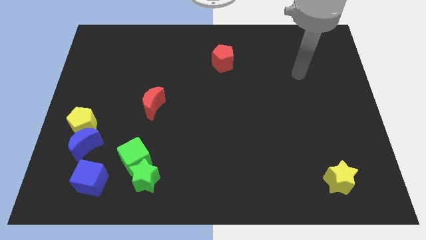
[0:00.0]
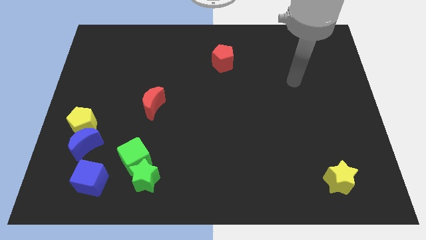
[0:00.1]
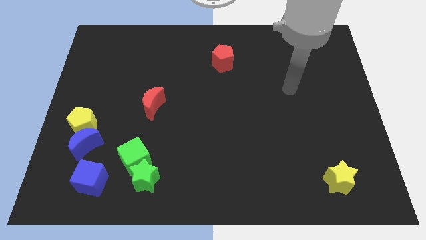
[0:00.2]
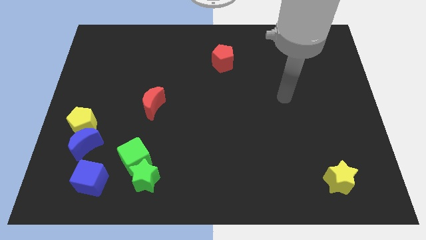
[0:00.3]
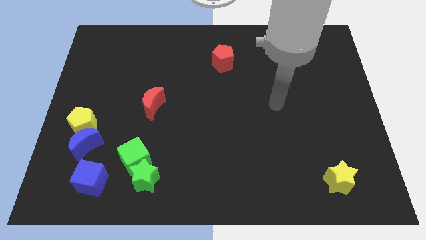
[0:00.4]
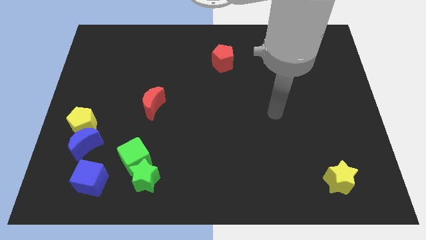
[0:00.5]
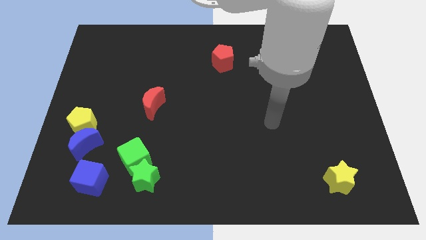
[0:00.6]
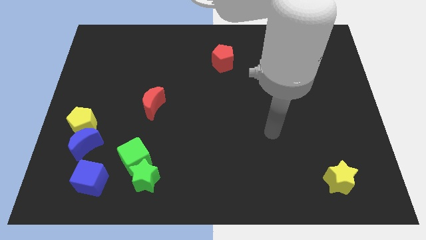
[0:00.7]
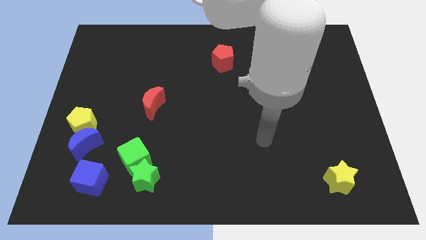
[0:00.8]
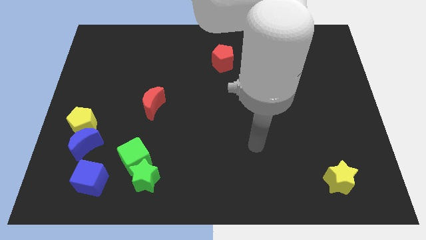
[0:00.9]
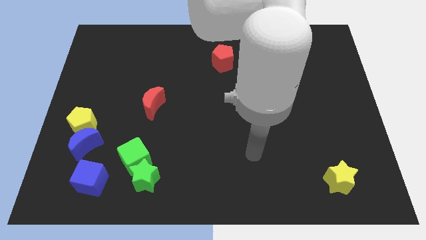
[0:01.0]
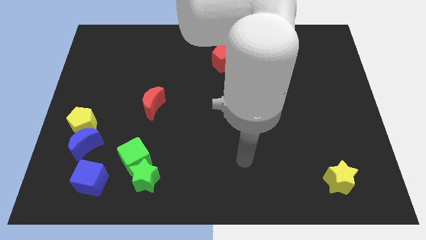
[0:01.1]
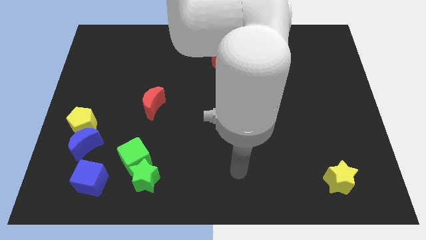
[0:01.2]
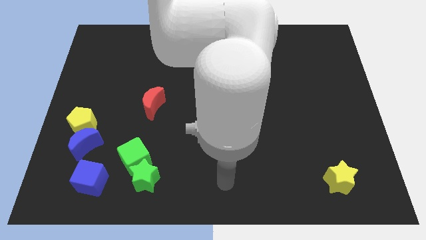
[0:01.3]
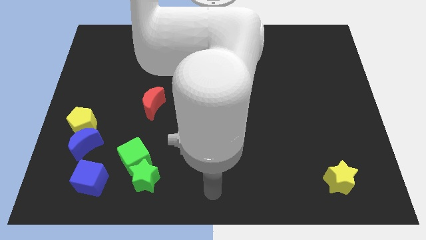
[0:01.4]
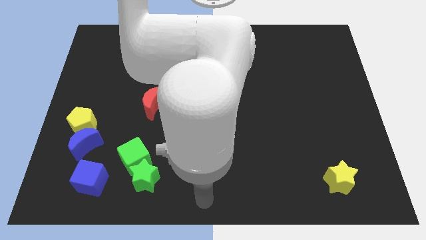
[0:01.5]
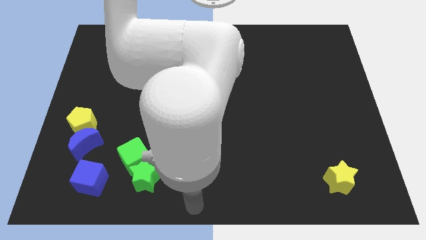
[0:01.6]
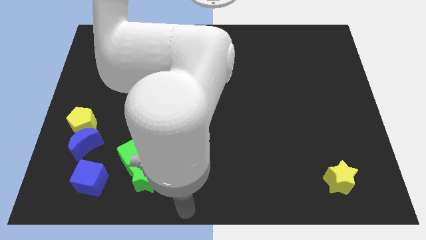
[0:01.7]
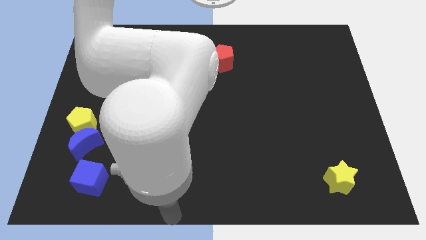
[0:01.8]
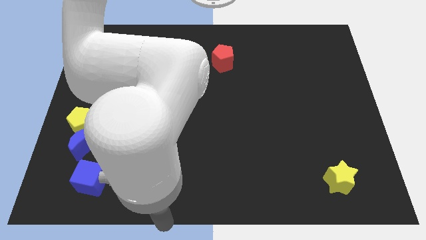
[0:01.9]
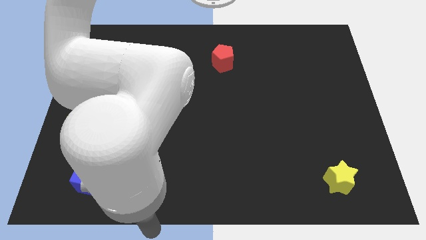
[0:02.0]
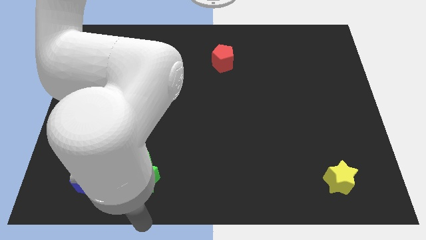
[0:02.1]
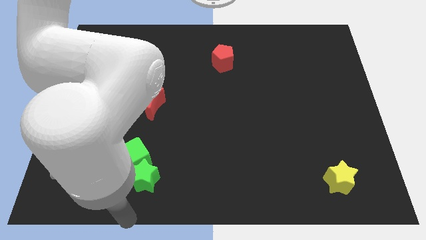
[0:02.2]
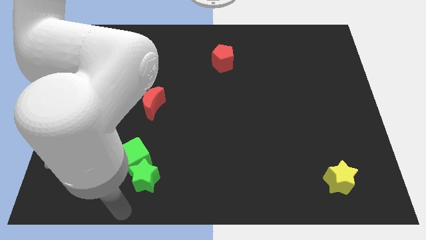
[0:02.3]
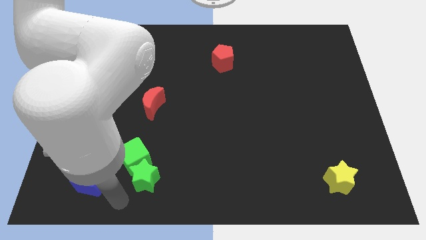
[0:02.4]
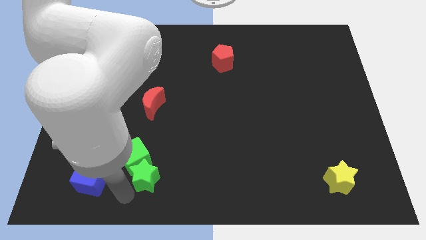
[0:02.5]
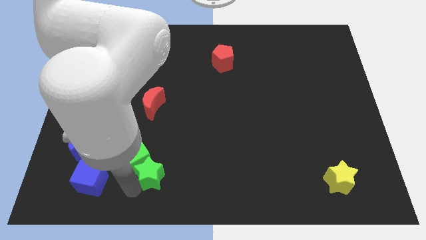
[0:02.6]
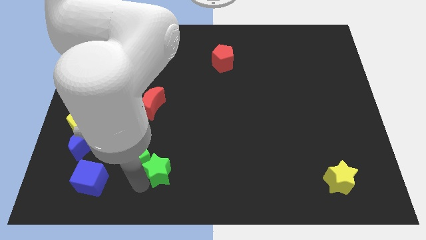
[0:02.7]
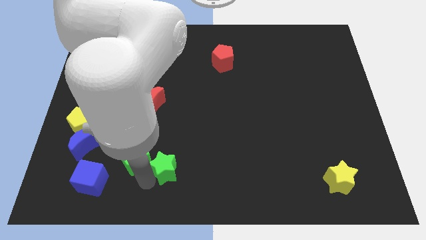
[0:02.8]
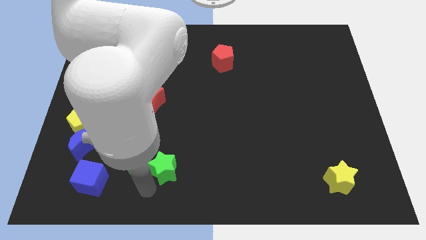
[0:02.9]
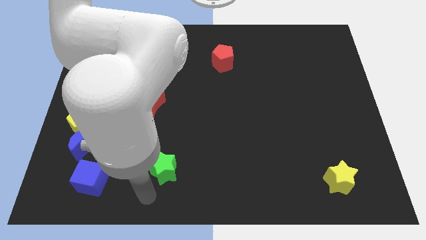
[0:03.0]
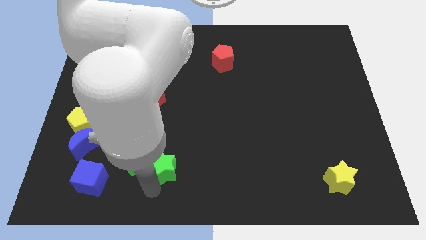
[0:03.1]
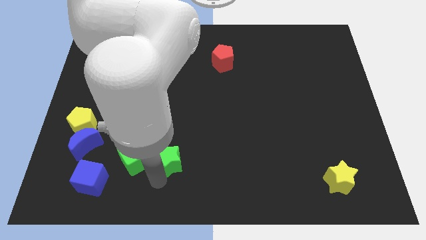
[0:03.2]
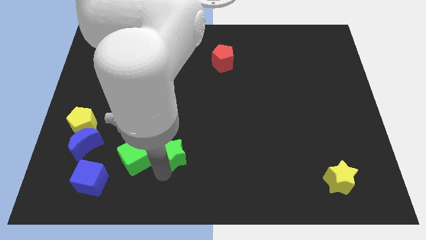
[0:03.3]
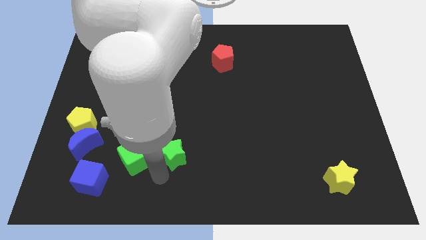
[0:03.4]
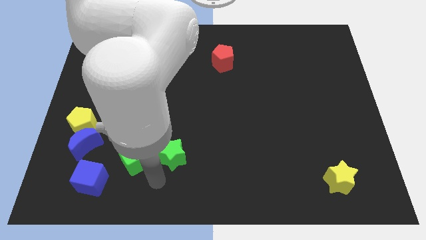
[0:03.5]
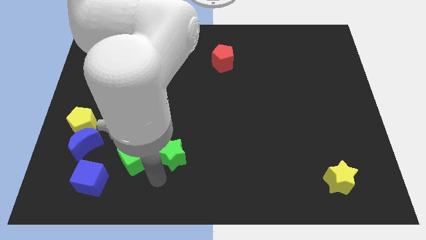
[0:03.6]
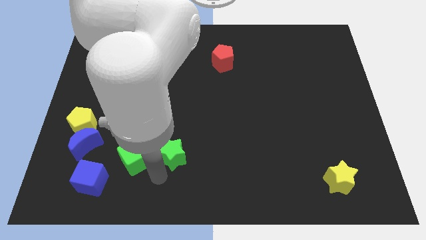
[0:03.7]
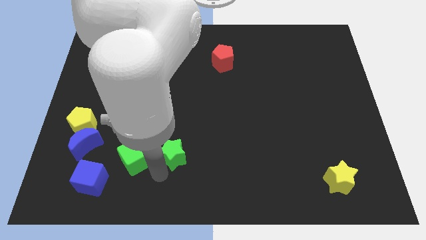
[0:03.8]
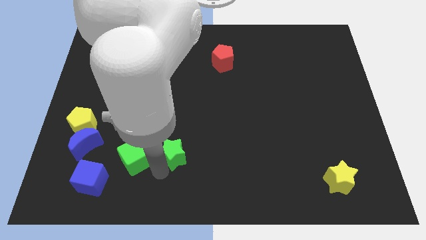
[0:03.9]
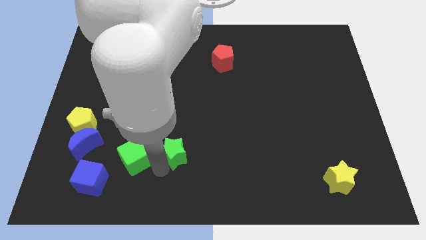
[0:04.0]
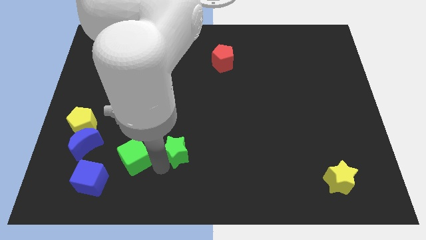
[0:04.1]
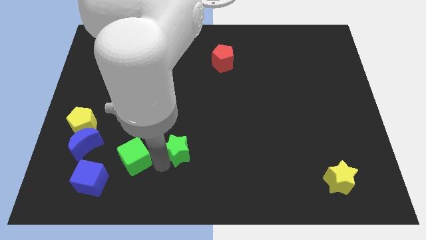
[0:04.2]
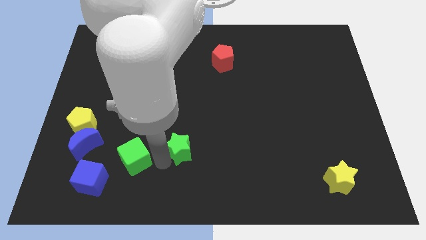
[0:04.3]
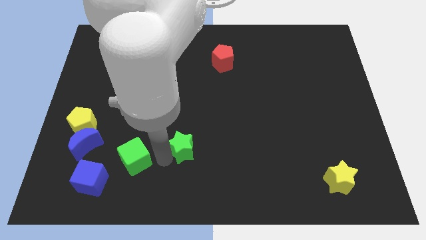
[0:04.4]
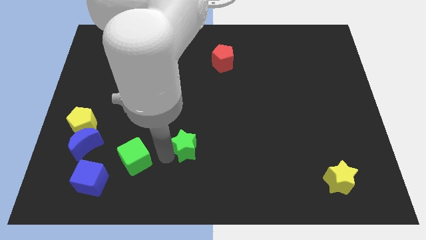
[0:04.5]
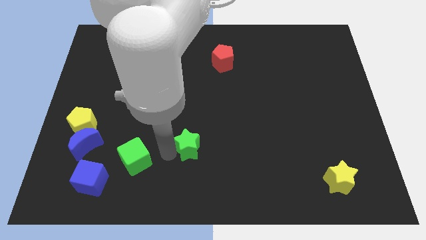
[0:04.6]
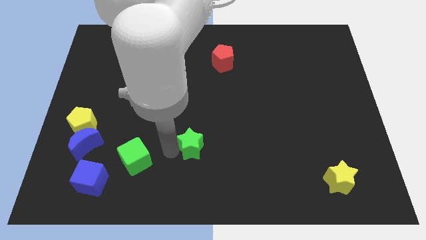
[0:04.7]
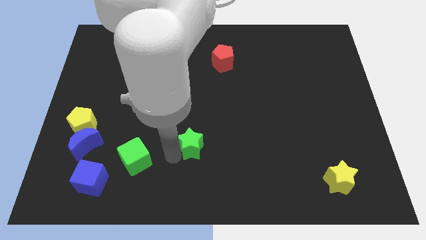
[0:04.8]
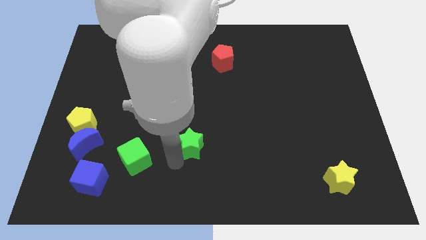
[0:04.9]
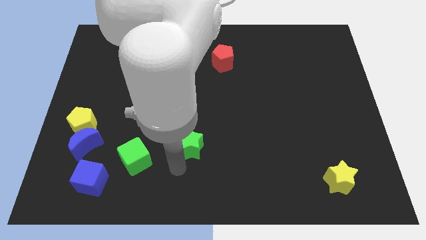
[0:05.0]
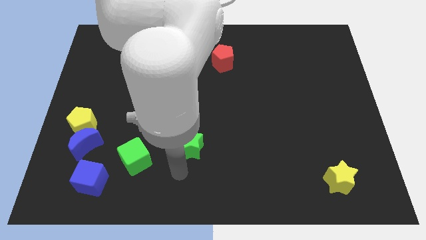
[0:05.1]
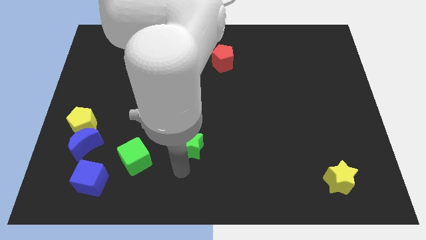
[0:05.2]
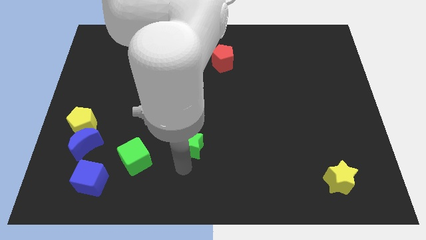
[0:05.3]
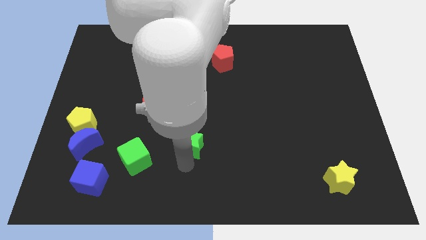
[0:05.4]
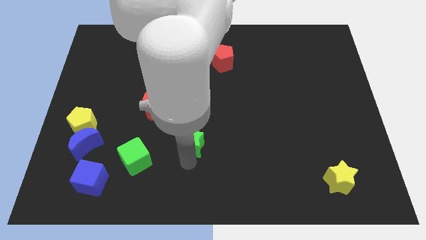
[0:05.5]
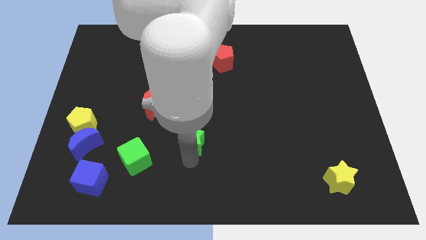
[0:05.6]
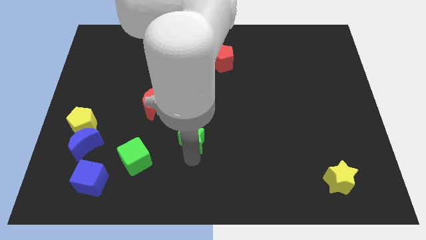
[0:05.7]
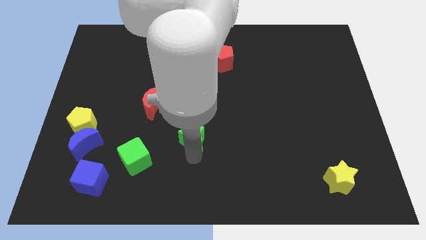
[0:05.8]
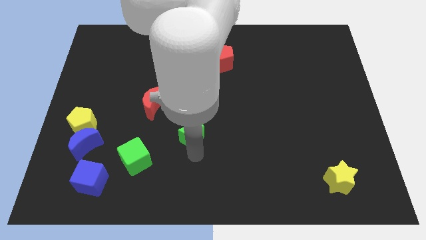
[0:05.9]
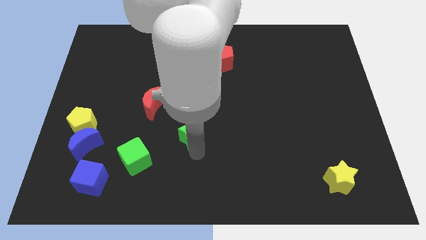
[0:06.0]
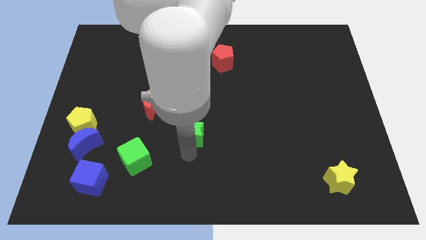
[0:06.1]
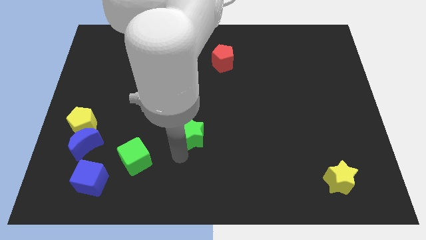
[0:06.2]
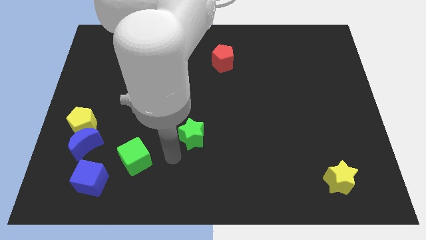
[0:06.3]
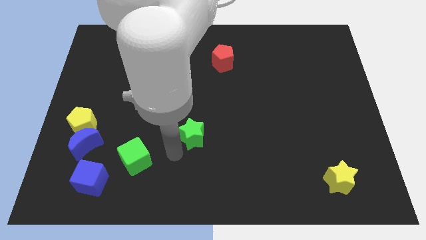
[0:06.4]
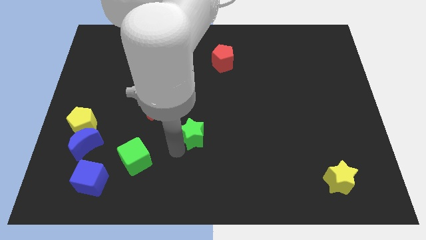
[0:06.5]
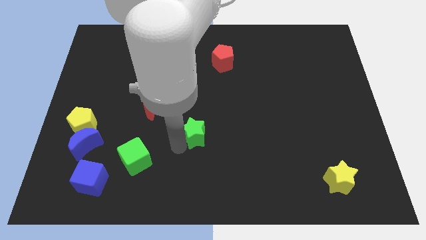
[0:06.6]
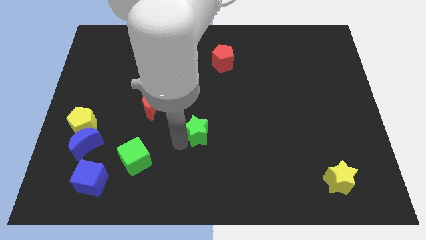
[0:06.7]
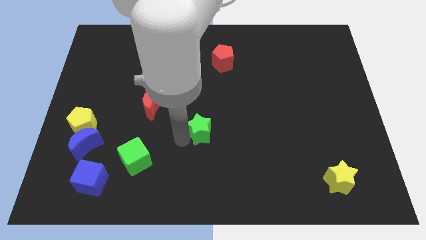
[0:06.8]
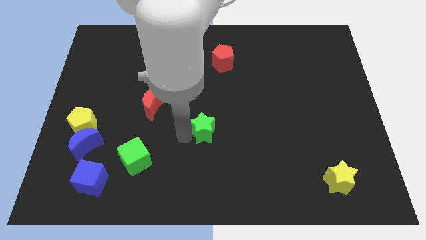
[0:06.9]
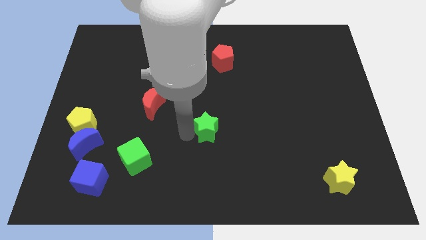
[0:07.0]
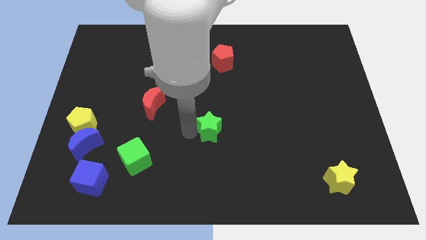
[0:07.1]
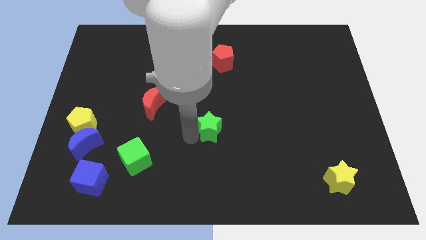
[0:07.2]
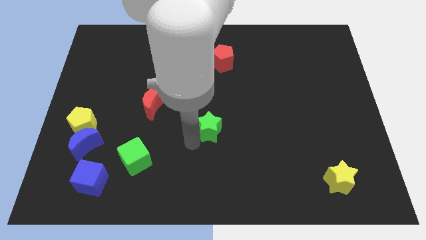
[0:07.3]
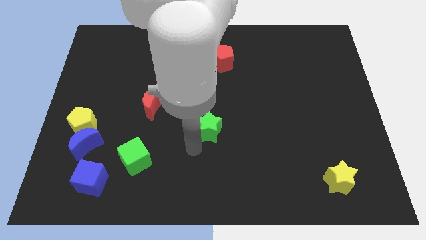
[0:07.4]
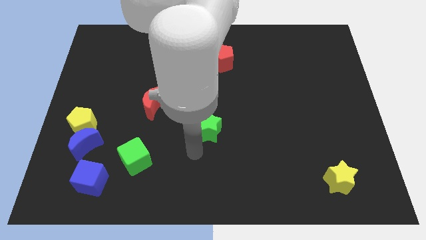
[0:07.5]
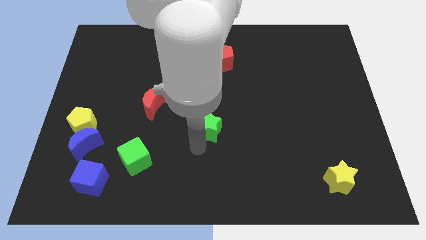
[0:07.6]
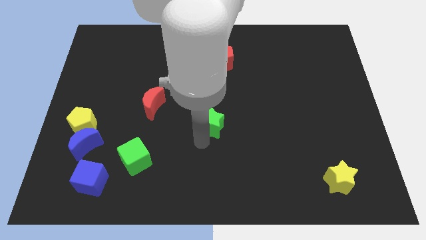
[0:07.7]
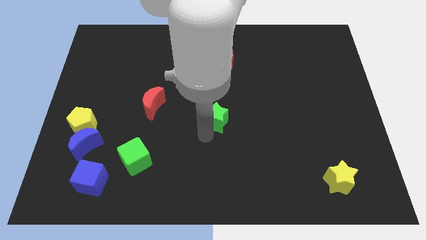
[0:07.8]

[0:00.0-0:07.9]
push the green star up and then to the right

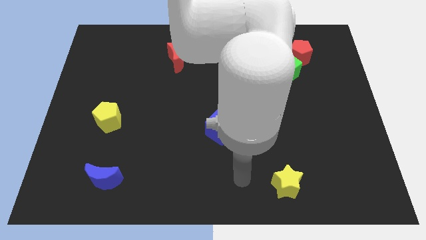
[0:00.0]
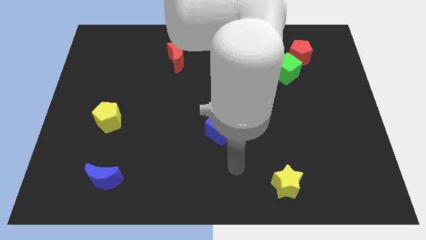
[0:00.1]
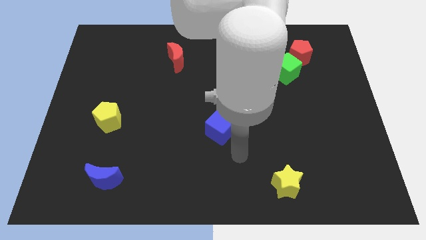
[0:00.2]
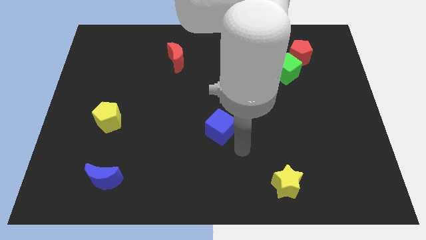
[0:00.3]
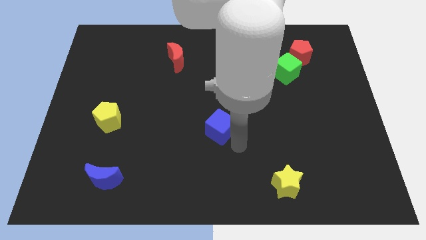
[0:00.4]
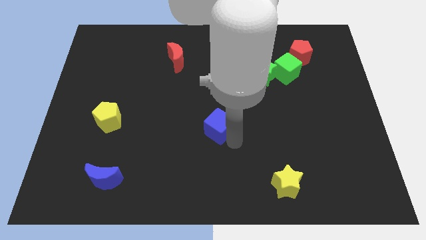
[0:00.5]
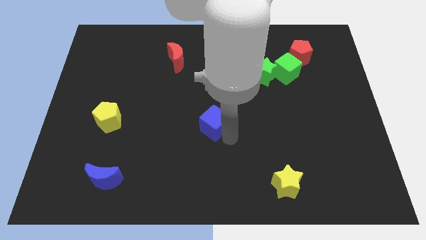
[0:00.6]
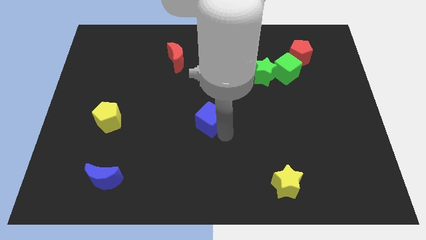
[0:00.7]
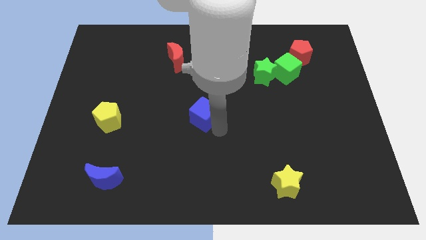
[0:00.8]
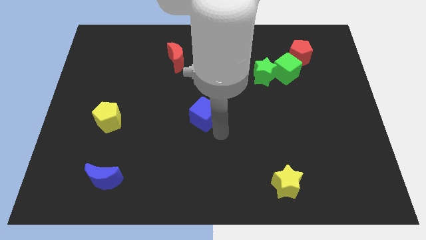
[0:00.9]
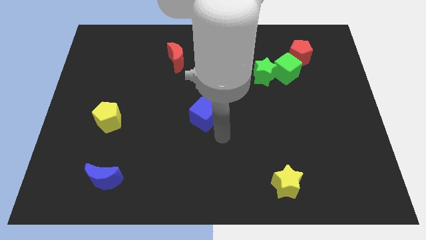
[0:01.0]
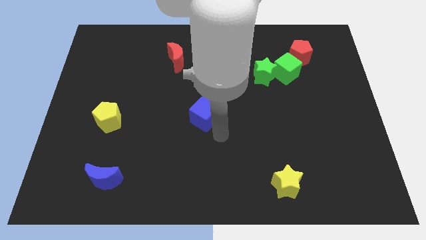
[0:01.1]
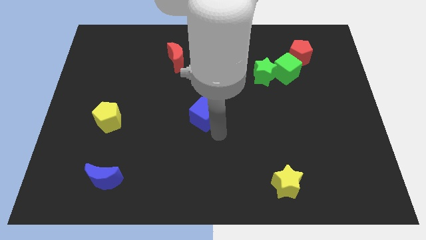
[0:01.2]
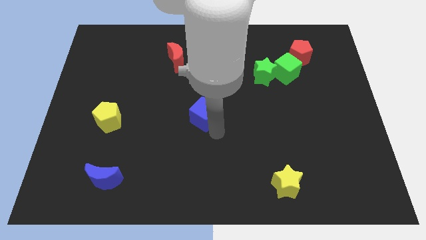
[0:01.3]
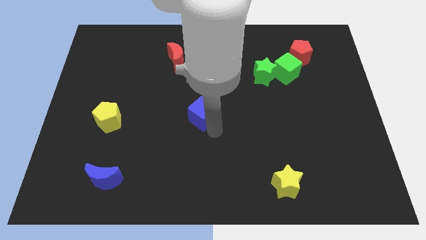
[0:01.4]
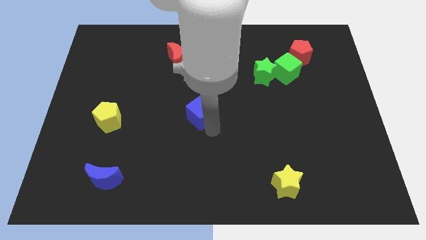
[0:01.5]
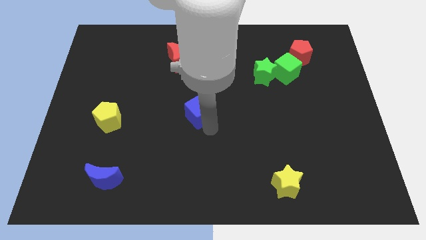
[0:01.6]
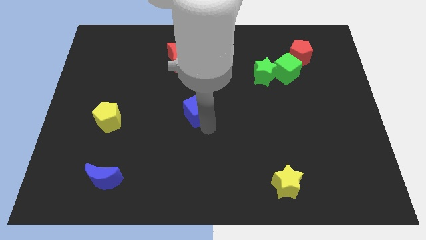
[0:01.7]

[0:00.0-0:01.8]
move the blue cube upwards and then left slightly
